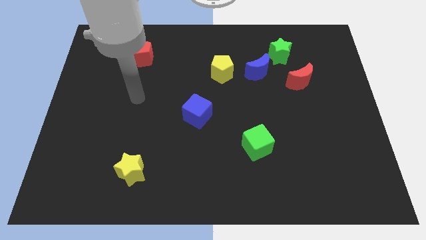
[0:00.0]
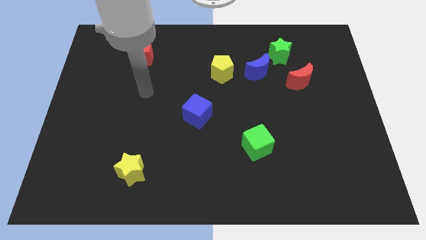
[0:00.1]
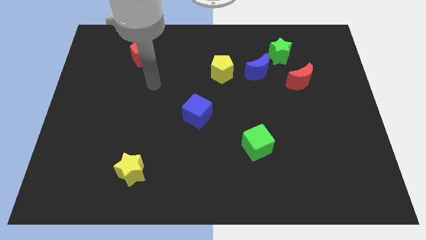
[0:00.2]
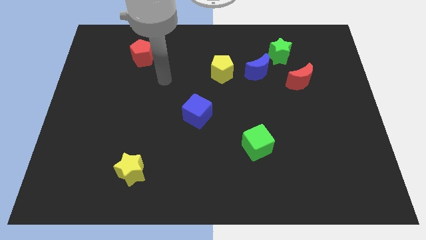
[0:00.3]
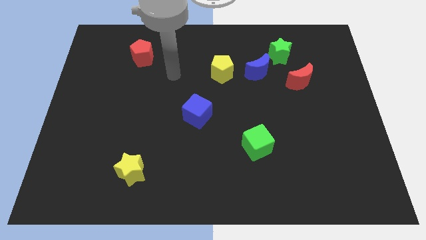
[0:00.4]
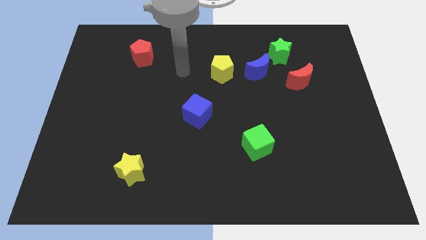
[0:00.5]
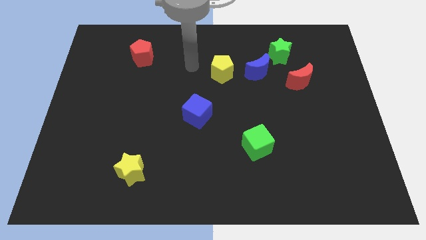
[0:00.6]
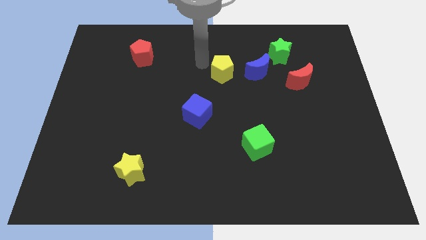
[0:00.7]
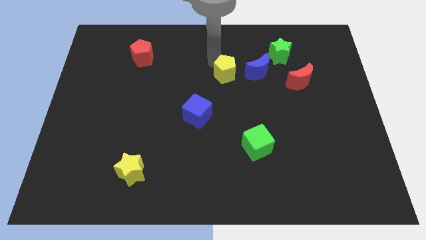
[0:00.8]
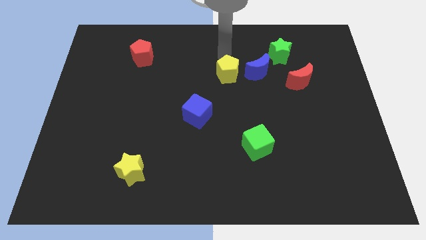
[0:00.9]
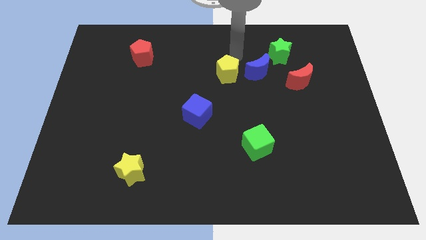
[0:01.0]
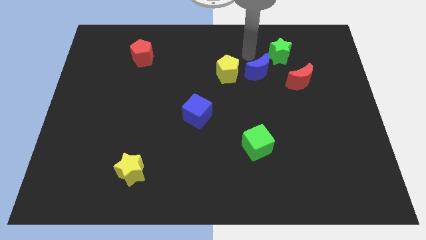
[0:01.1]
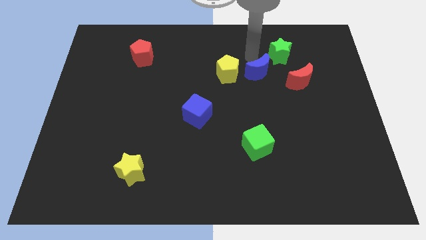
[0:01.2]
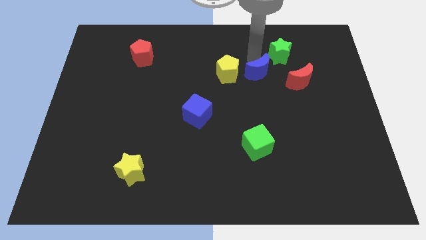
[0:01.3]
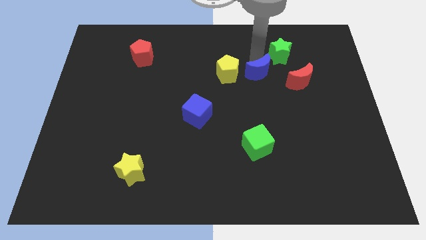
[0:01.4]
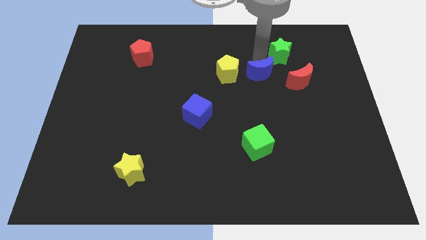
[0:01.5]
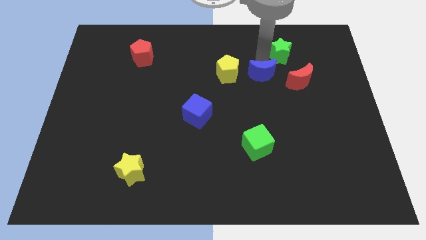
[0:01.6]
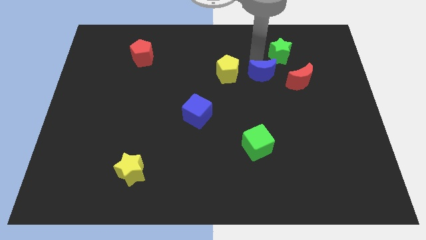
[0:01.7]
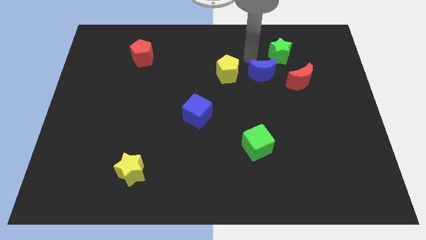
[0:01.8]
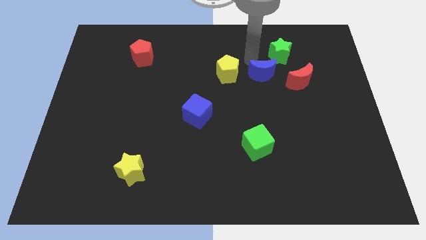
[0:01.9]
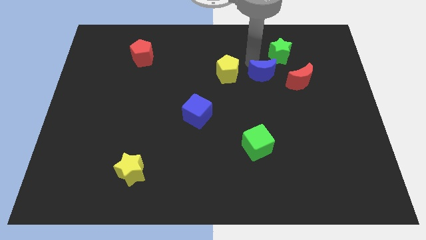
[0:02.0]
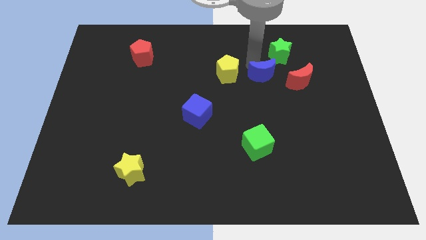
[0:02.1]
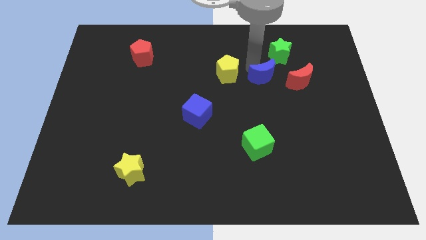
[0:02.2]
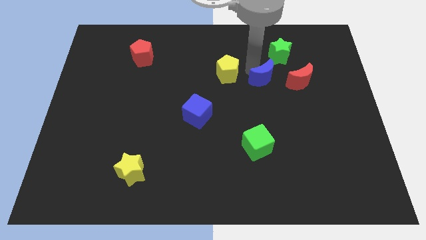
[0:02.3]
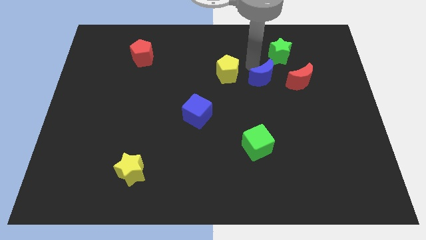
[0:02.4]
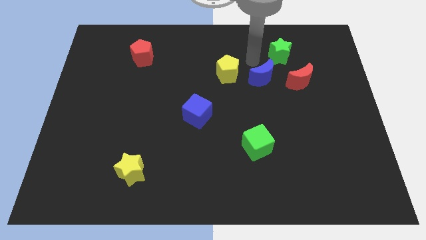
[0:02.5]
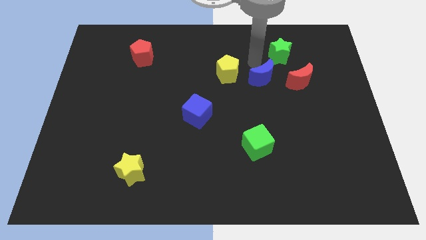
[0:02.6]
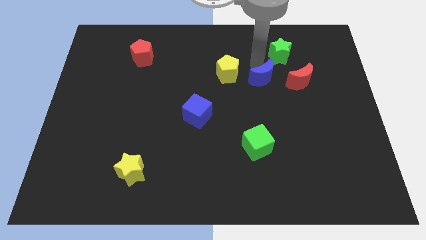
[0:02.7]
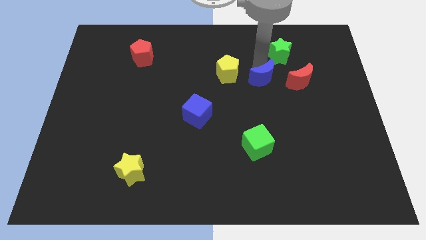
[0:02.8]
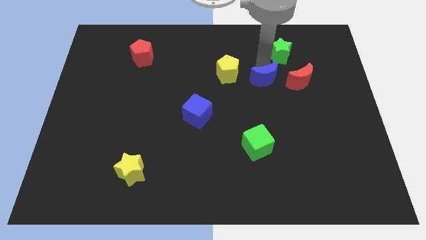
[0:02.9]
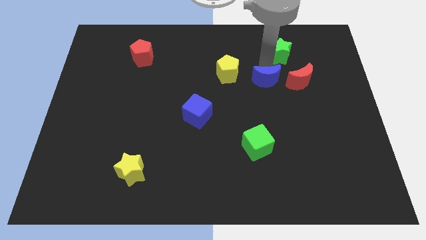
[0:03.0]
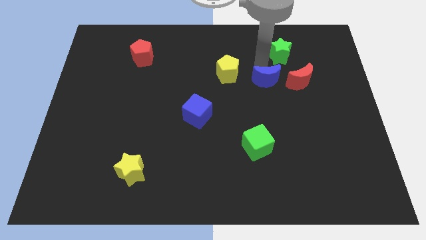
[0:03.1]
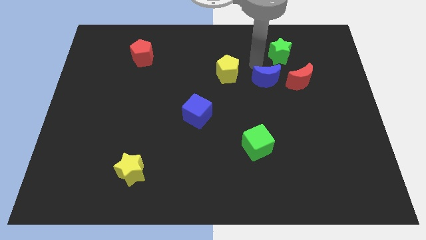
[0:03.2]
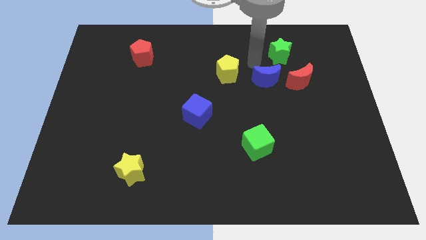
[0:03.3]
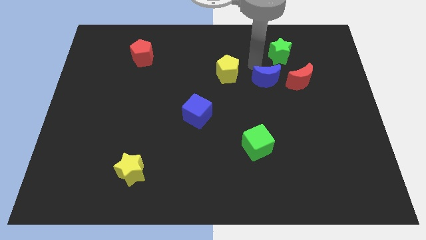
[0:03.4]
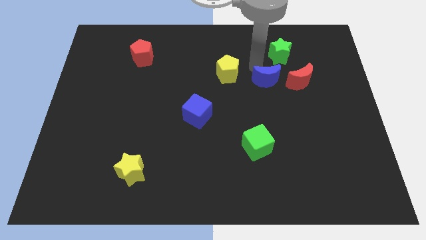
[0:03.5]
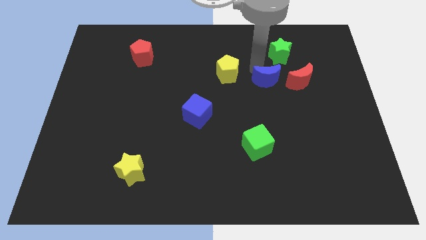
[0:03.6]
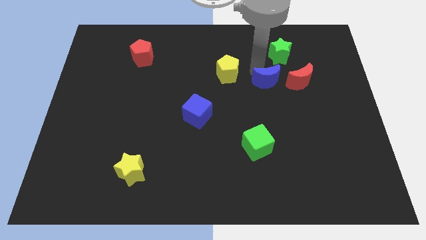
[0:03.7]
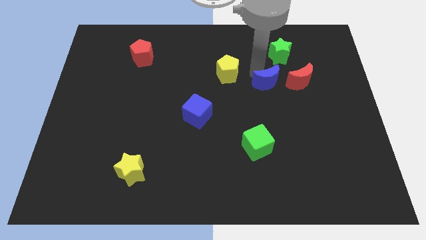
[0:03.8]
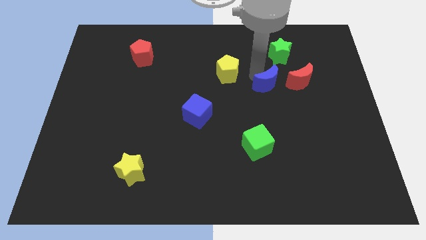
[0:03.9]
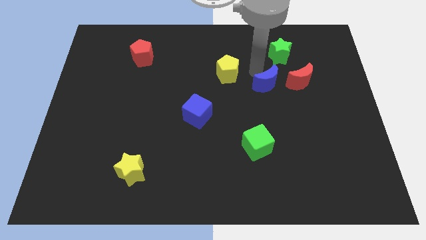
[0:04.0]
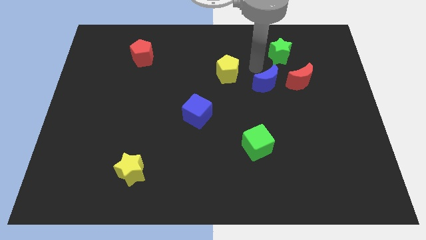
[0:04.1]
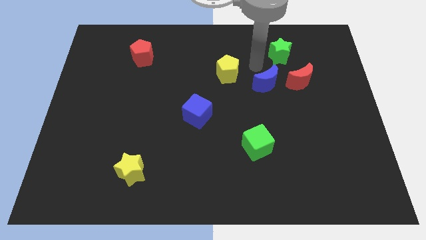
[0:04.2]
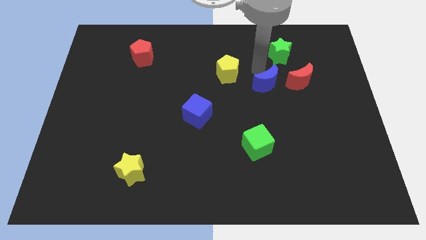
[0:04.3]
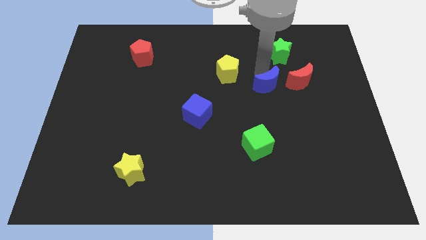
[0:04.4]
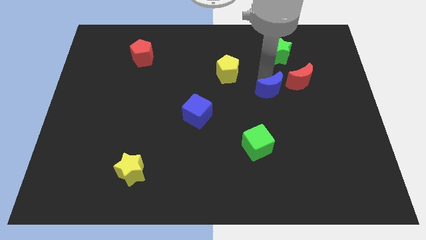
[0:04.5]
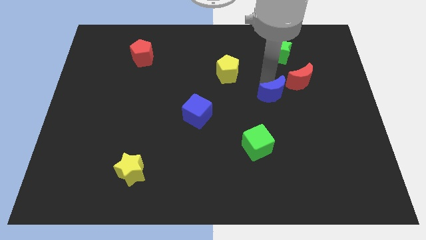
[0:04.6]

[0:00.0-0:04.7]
pull the blue moon apart from the green star and yellow pentagon

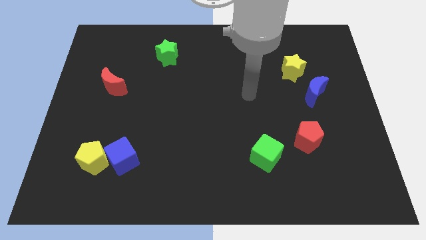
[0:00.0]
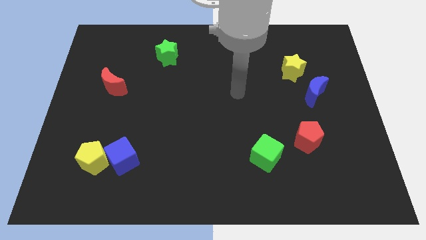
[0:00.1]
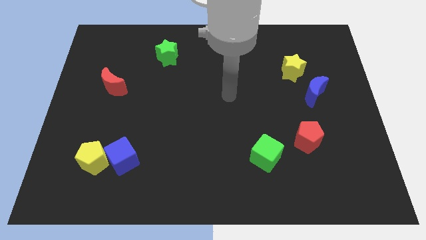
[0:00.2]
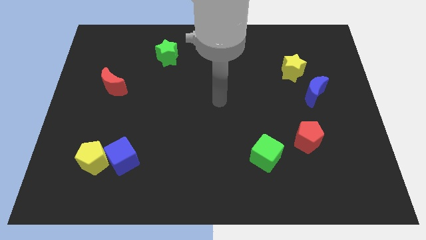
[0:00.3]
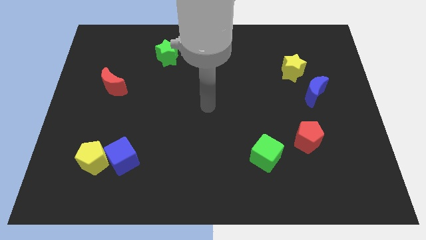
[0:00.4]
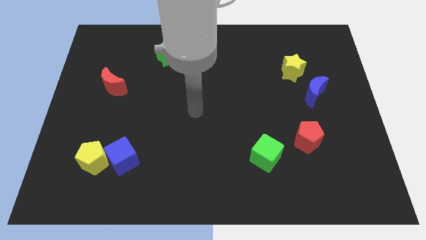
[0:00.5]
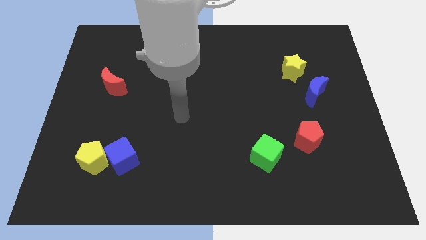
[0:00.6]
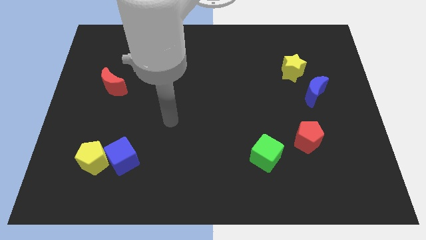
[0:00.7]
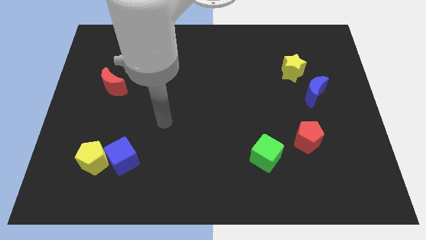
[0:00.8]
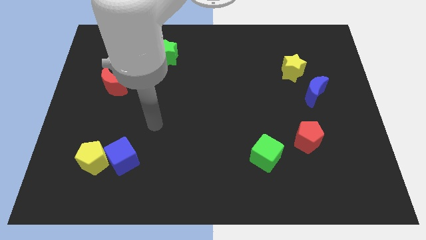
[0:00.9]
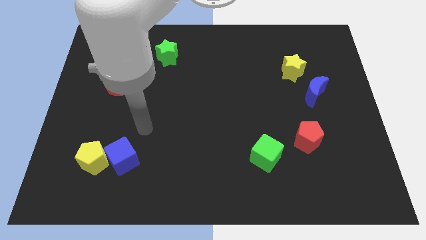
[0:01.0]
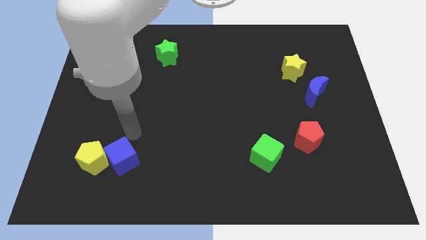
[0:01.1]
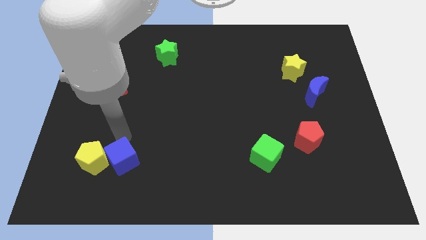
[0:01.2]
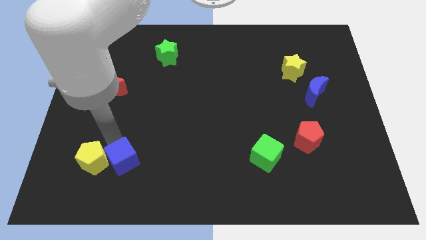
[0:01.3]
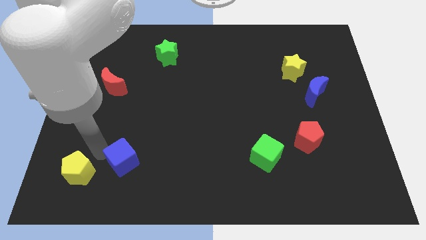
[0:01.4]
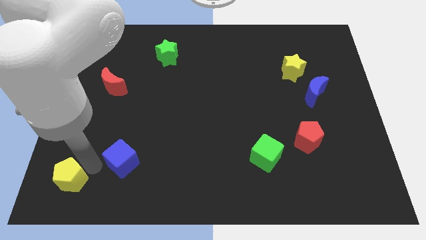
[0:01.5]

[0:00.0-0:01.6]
separate the blue cube from the yellow pentagon

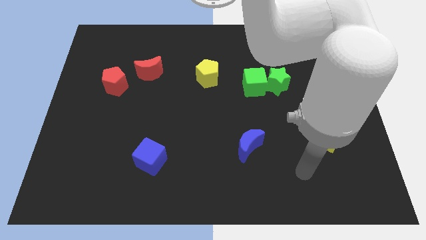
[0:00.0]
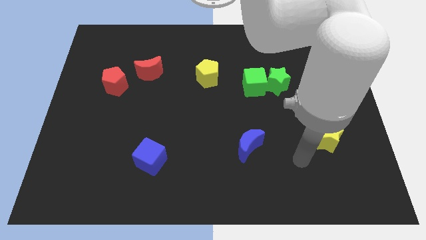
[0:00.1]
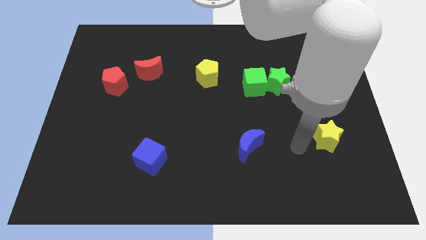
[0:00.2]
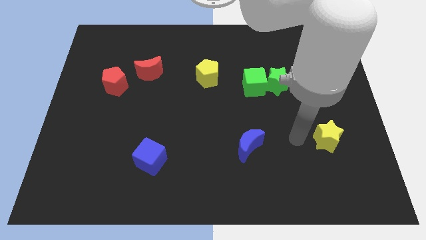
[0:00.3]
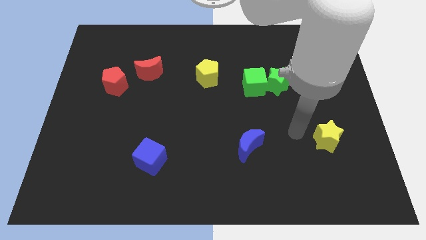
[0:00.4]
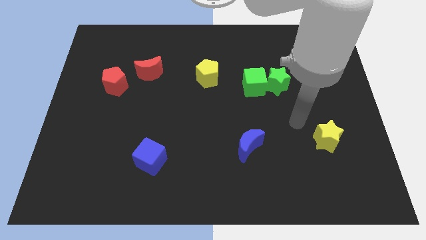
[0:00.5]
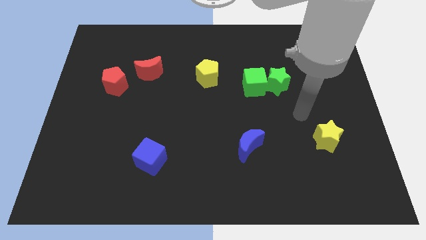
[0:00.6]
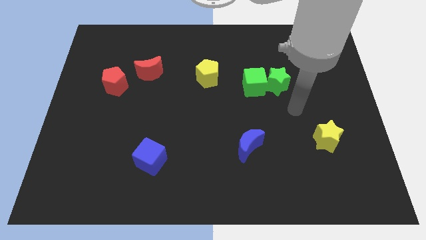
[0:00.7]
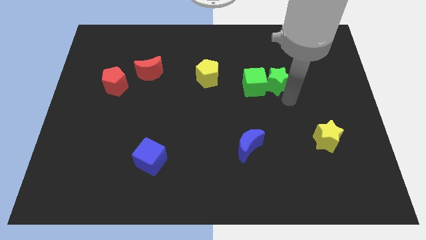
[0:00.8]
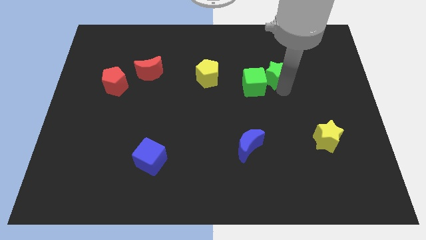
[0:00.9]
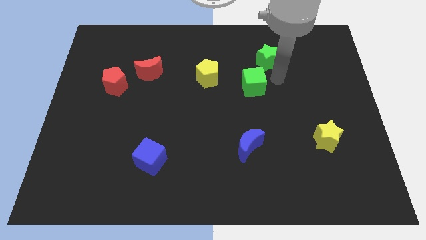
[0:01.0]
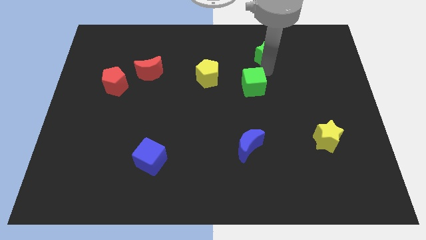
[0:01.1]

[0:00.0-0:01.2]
separate the green cube from the green star

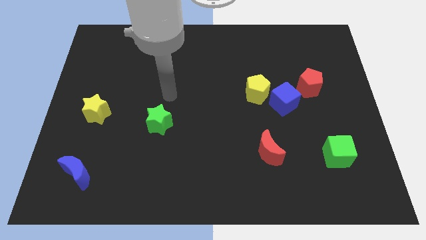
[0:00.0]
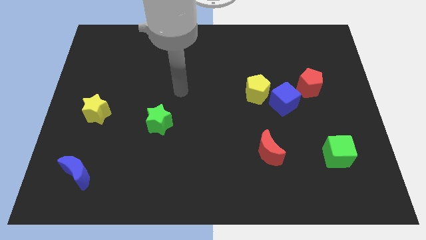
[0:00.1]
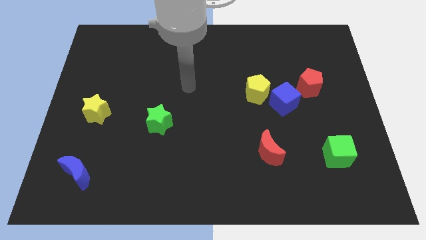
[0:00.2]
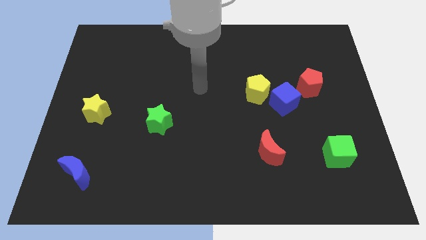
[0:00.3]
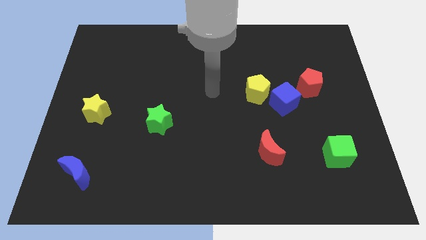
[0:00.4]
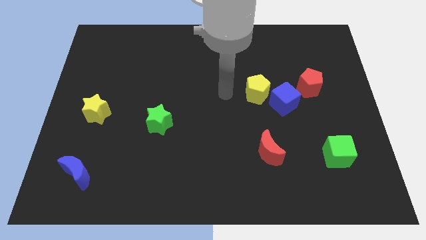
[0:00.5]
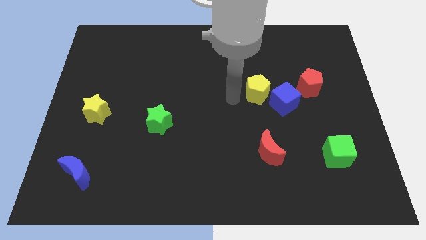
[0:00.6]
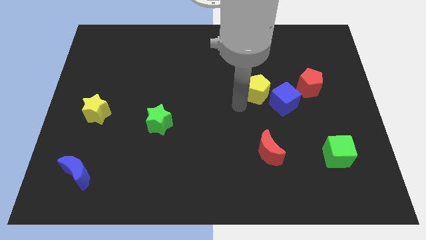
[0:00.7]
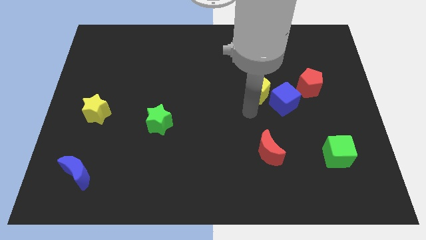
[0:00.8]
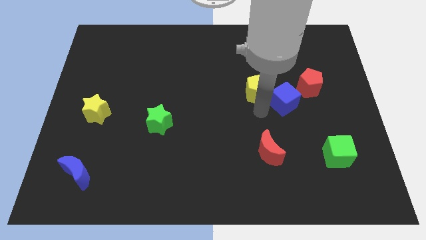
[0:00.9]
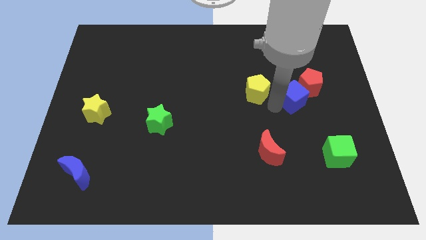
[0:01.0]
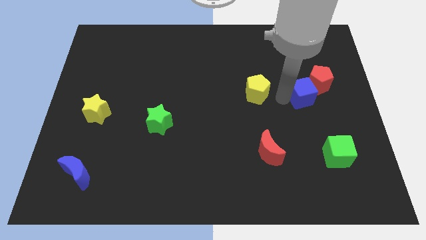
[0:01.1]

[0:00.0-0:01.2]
pull the yellow pentagon apart from the blue cube

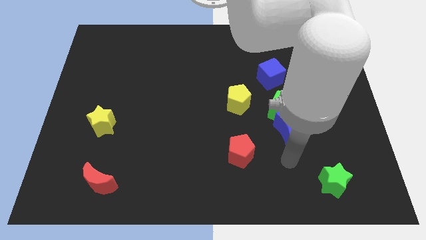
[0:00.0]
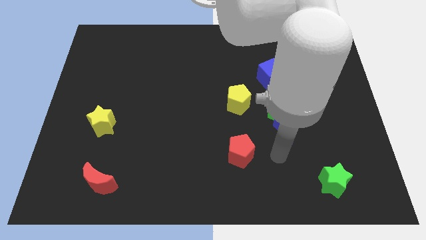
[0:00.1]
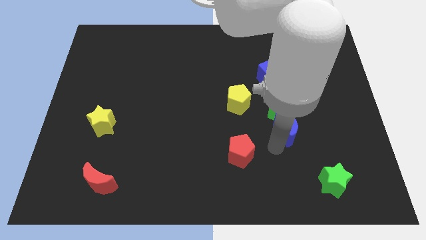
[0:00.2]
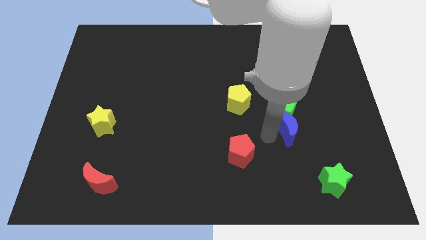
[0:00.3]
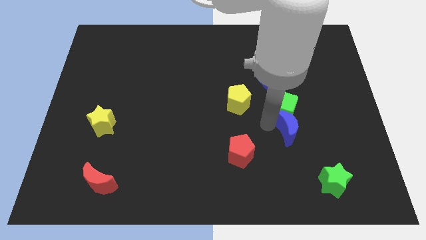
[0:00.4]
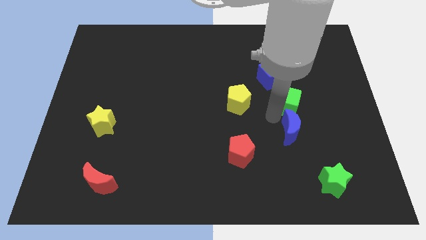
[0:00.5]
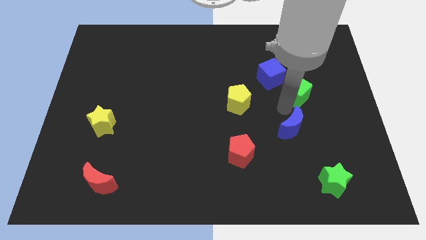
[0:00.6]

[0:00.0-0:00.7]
pull the blue moon apart from the green cube
